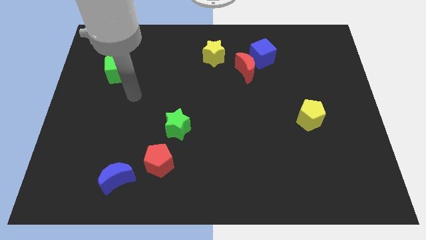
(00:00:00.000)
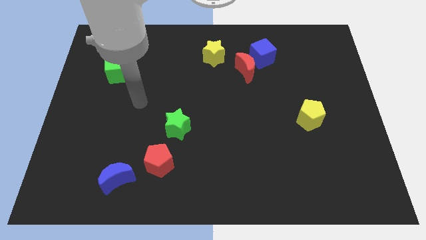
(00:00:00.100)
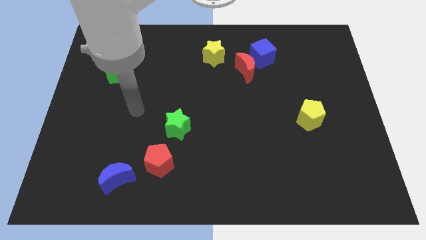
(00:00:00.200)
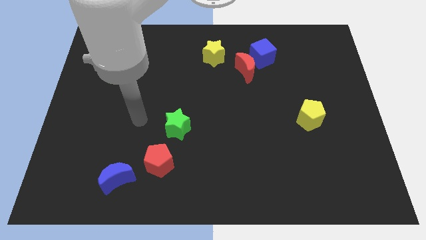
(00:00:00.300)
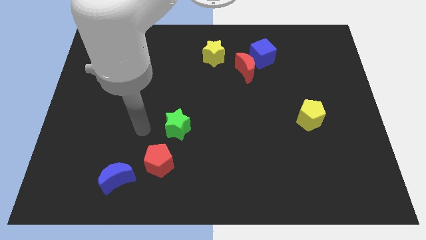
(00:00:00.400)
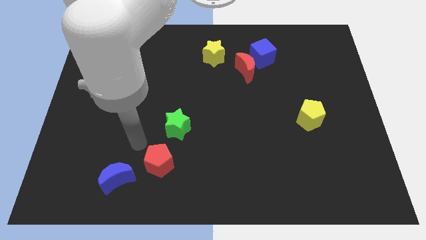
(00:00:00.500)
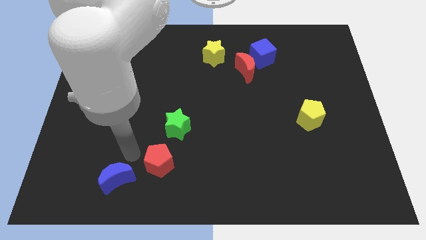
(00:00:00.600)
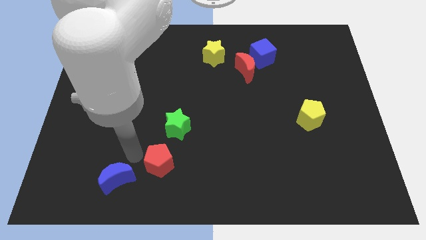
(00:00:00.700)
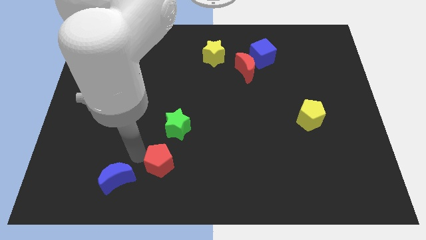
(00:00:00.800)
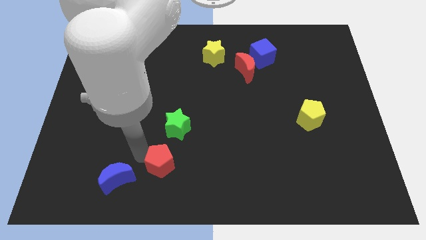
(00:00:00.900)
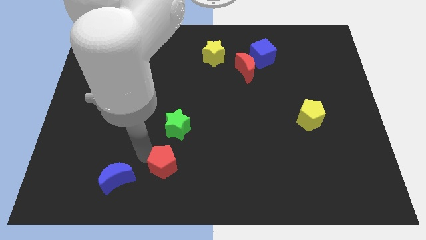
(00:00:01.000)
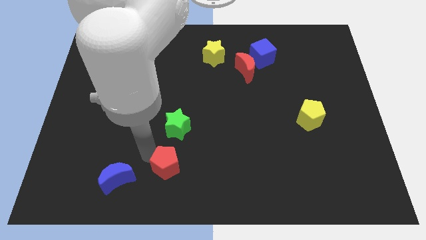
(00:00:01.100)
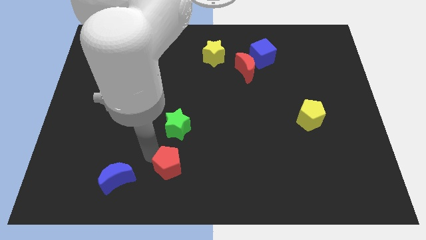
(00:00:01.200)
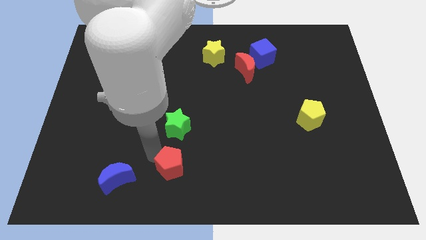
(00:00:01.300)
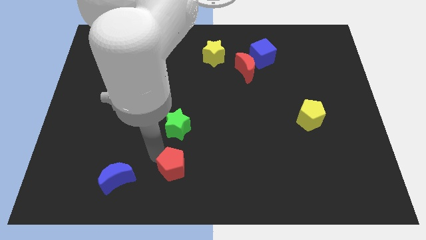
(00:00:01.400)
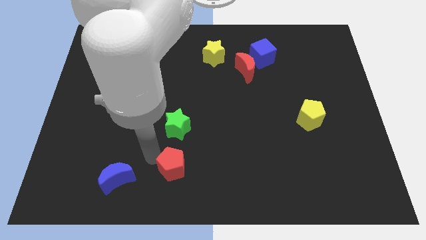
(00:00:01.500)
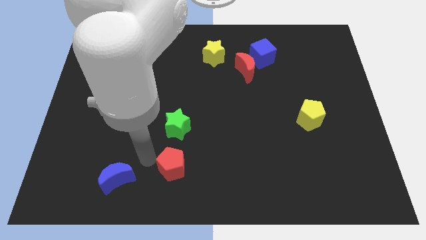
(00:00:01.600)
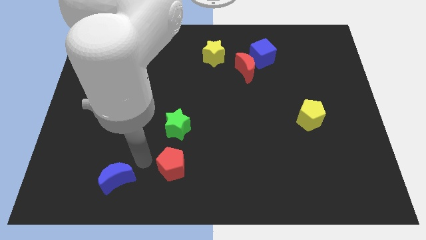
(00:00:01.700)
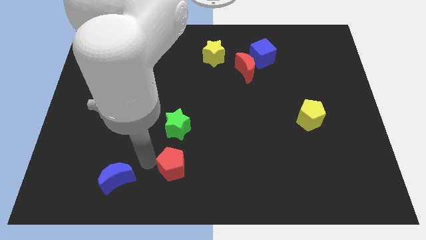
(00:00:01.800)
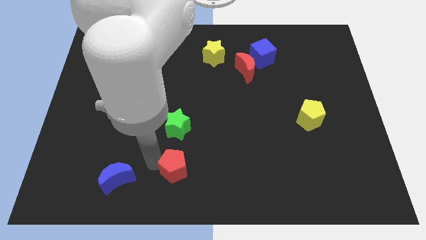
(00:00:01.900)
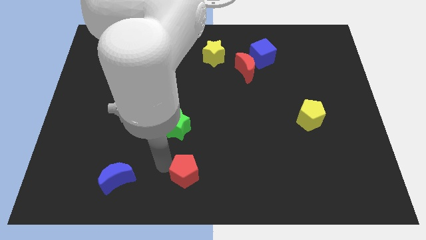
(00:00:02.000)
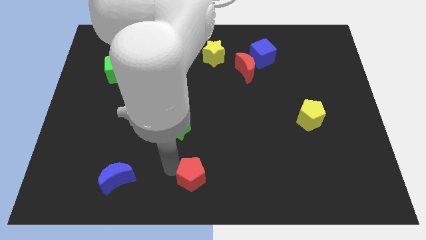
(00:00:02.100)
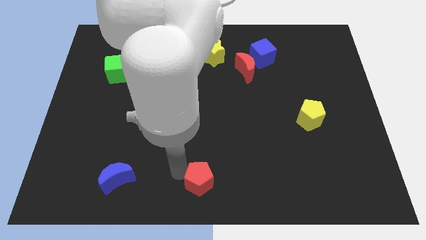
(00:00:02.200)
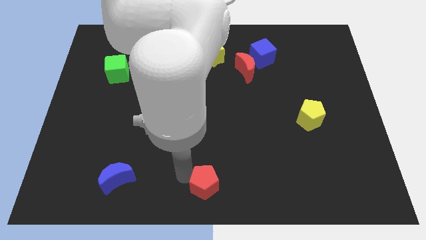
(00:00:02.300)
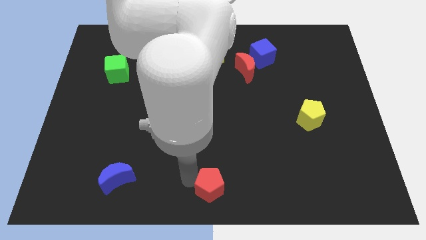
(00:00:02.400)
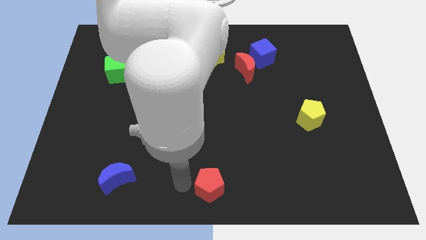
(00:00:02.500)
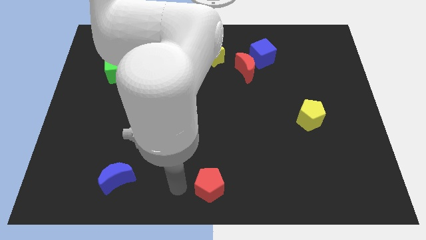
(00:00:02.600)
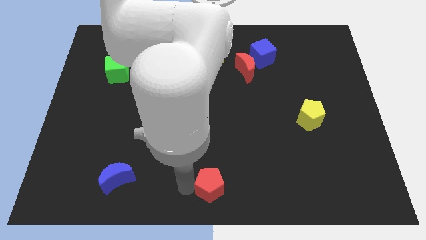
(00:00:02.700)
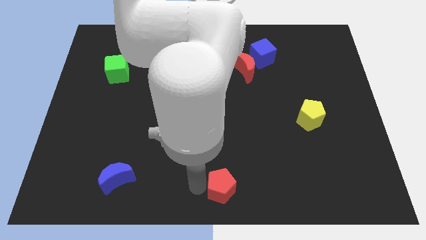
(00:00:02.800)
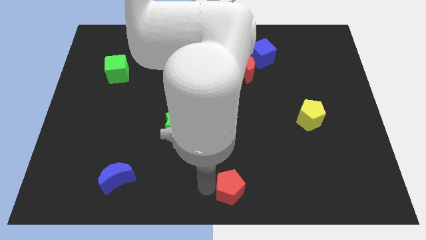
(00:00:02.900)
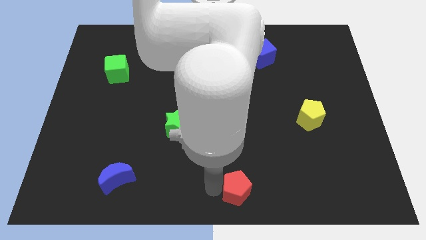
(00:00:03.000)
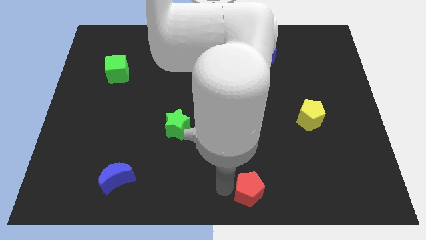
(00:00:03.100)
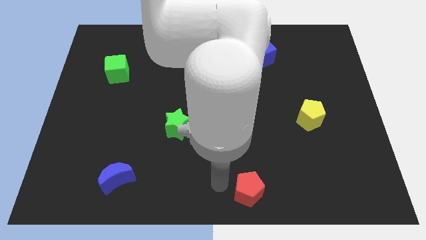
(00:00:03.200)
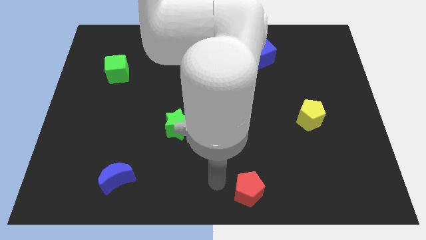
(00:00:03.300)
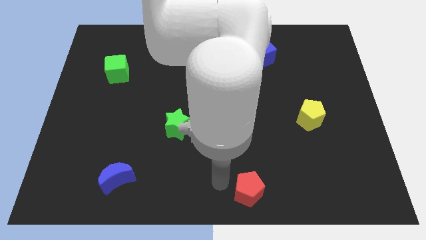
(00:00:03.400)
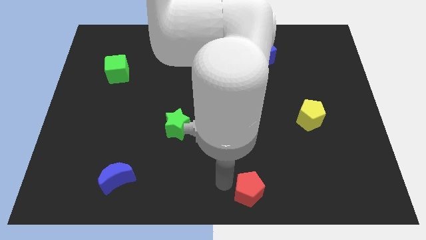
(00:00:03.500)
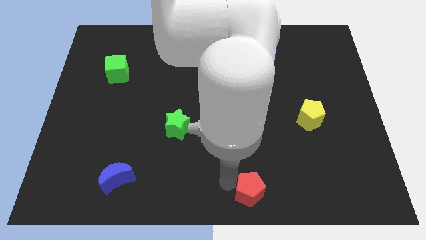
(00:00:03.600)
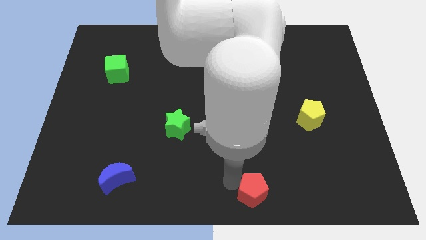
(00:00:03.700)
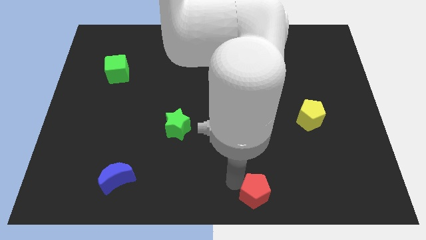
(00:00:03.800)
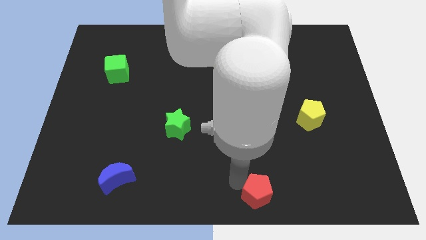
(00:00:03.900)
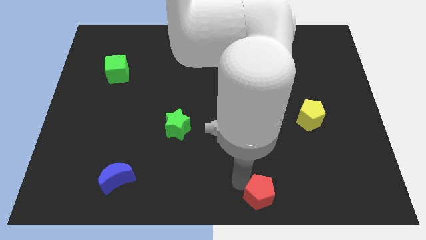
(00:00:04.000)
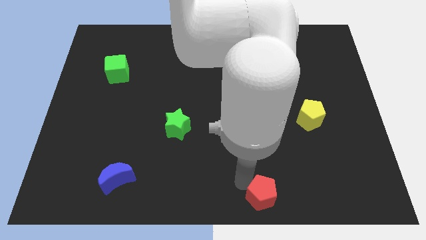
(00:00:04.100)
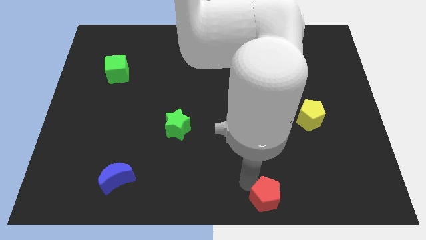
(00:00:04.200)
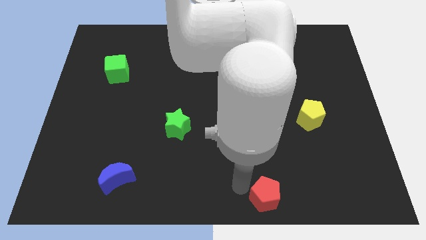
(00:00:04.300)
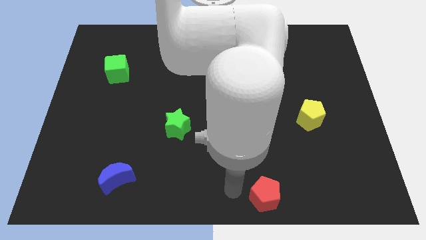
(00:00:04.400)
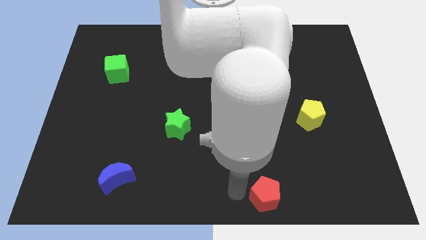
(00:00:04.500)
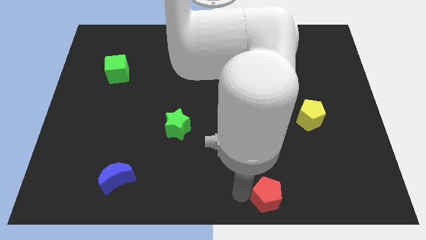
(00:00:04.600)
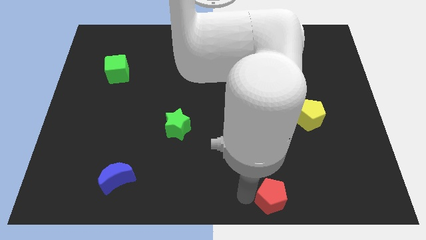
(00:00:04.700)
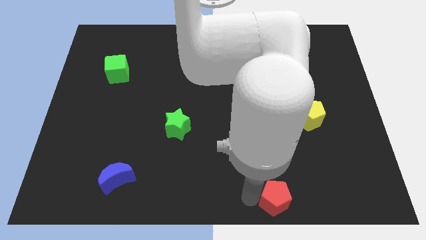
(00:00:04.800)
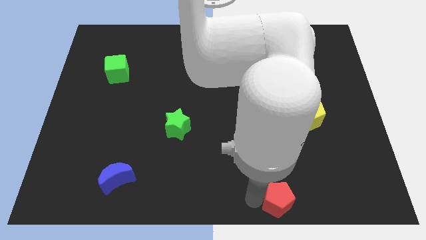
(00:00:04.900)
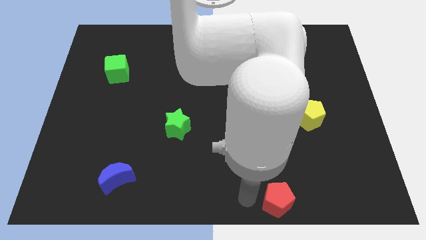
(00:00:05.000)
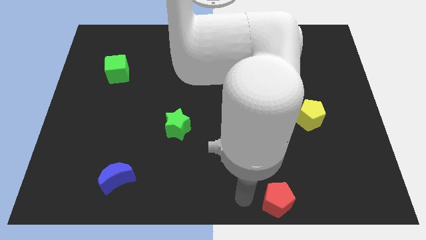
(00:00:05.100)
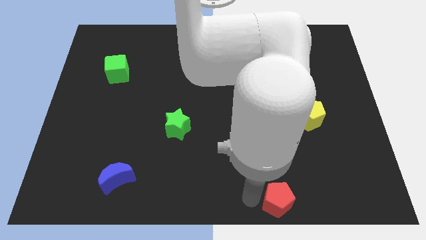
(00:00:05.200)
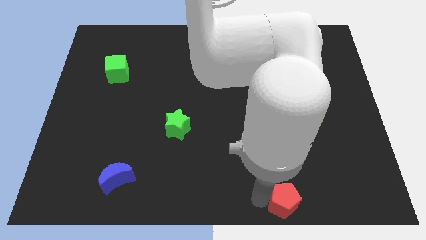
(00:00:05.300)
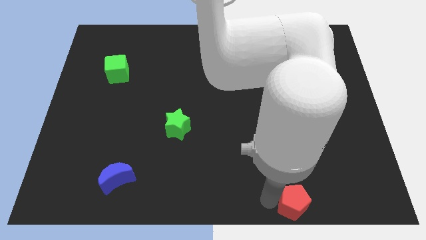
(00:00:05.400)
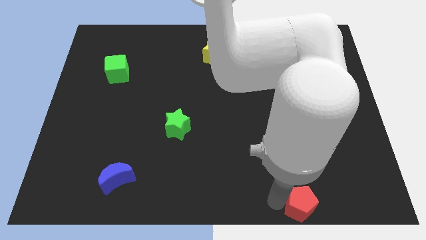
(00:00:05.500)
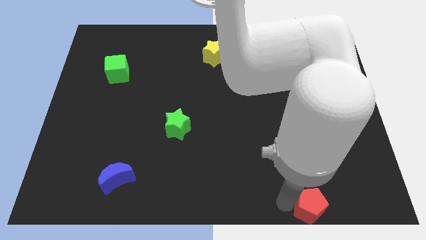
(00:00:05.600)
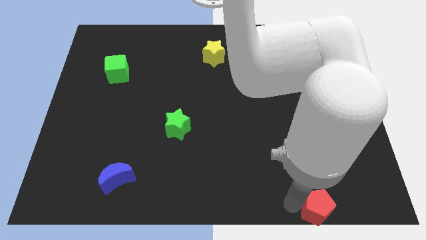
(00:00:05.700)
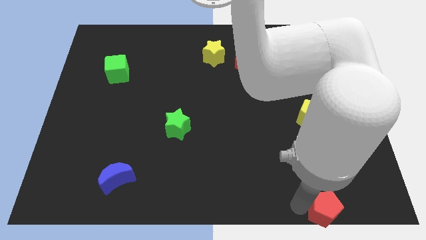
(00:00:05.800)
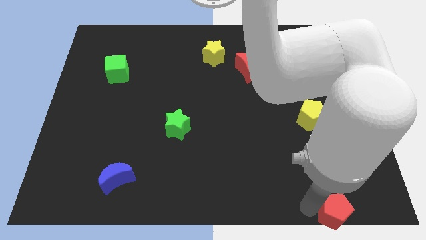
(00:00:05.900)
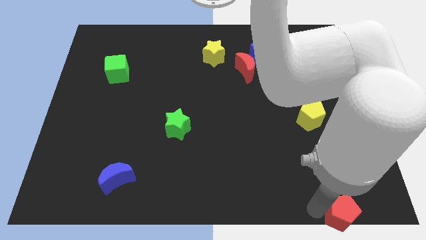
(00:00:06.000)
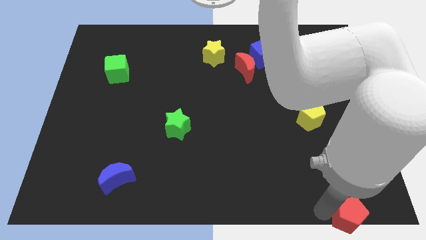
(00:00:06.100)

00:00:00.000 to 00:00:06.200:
slide the red pentagon to the lower right corner

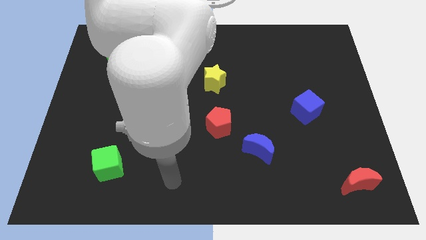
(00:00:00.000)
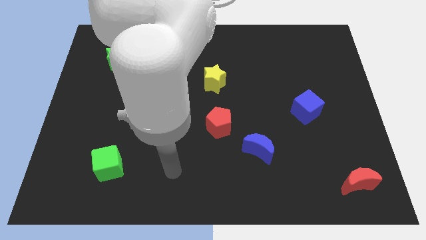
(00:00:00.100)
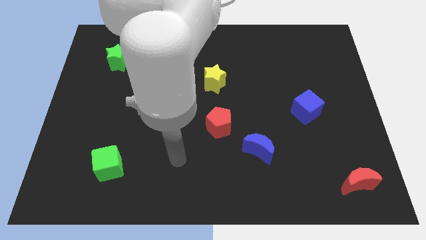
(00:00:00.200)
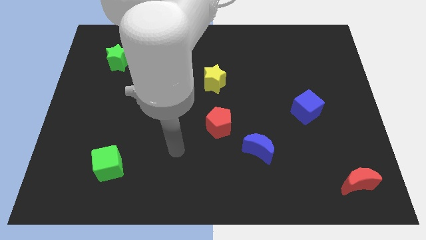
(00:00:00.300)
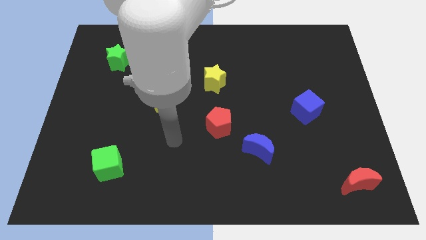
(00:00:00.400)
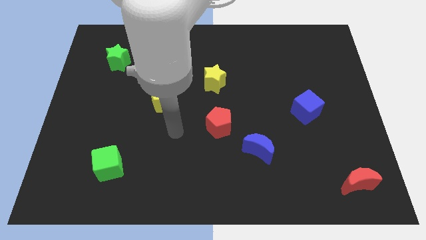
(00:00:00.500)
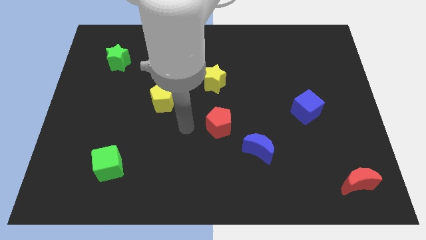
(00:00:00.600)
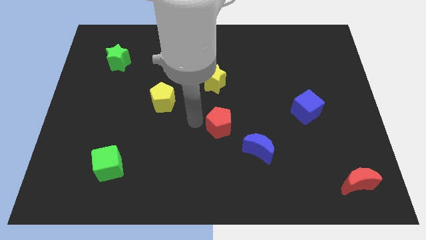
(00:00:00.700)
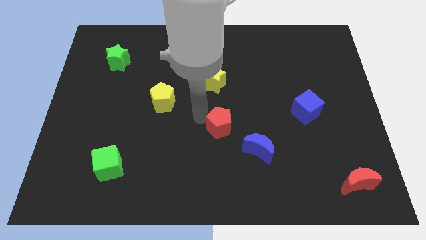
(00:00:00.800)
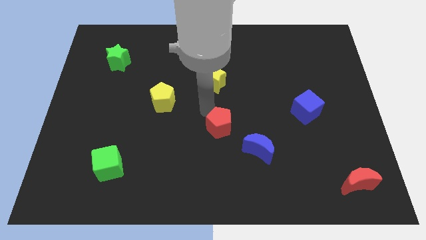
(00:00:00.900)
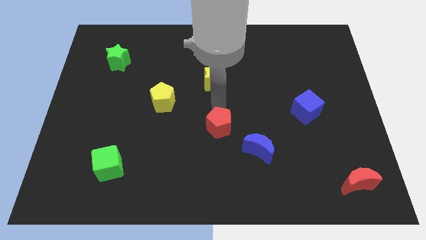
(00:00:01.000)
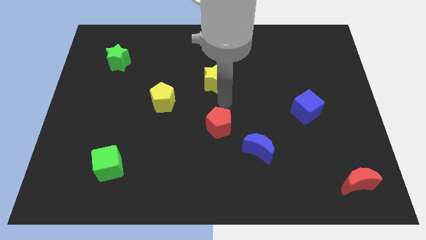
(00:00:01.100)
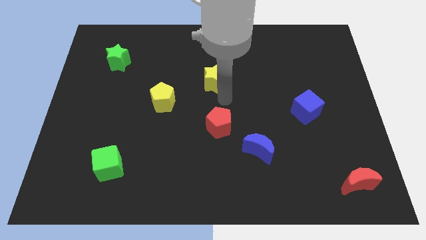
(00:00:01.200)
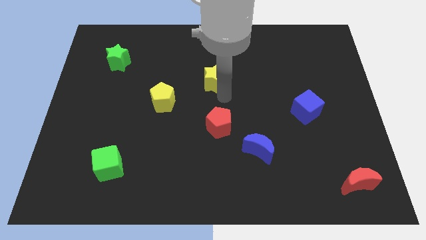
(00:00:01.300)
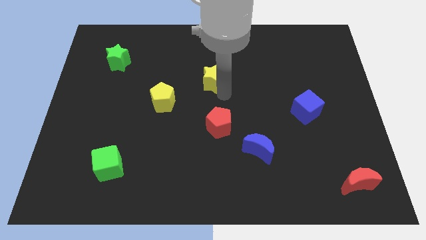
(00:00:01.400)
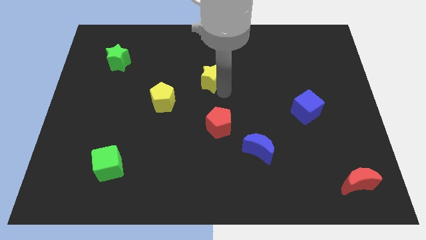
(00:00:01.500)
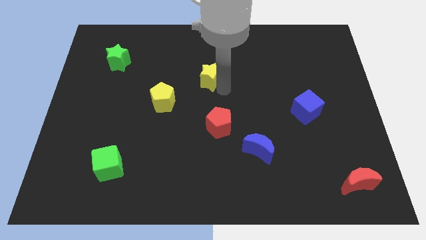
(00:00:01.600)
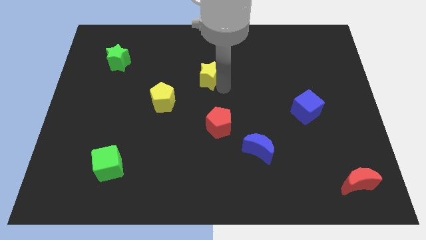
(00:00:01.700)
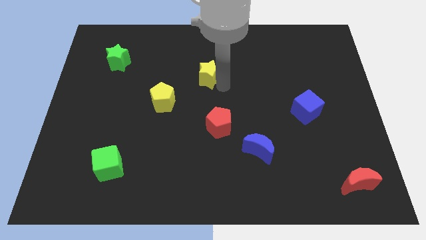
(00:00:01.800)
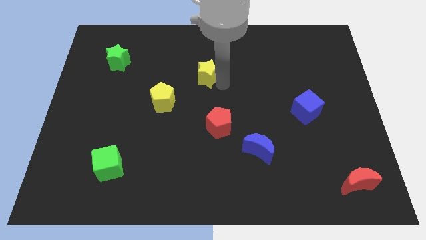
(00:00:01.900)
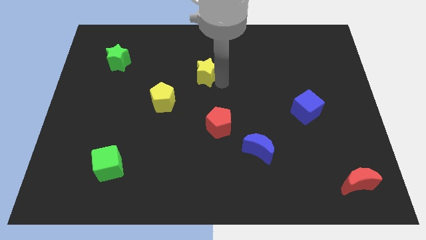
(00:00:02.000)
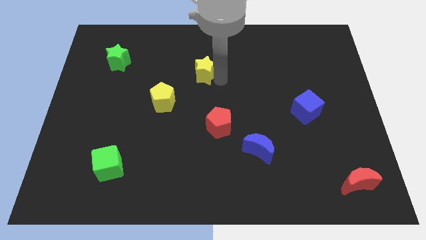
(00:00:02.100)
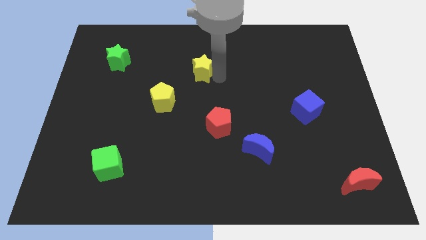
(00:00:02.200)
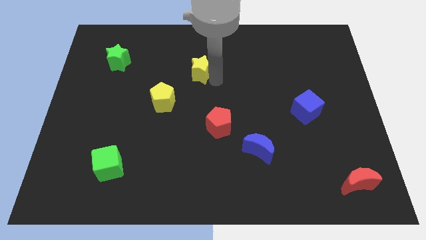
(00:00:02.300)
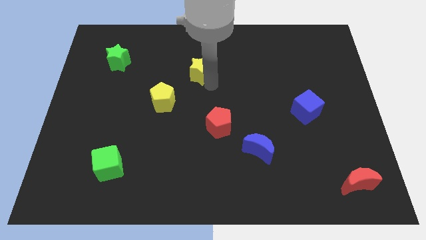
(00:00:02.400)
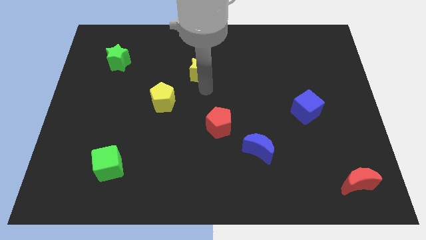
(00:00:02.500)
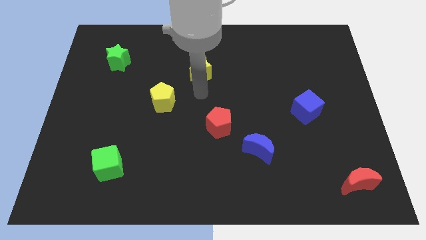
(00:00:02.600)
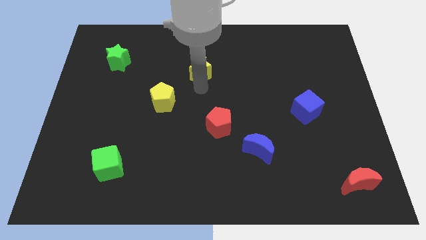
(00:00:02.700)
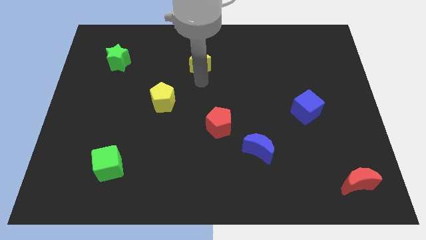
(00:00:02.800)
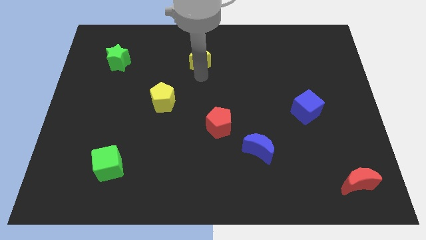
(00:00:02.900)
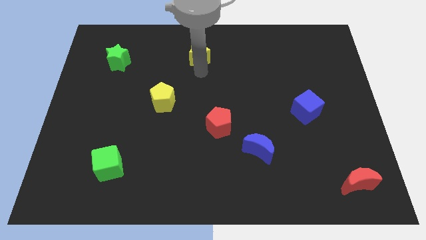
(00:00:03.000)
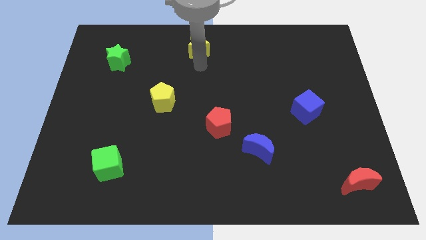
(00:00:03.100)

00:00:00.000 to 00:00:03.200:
move the yellow star to the towards your base
